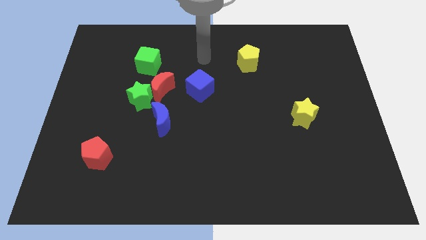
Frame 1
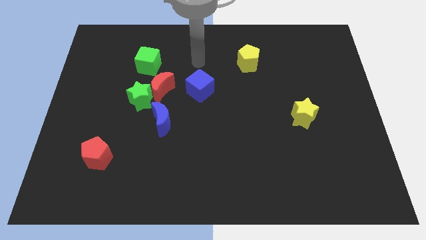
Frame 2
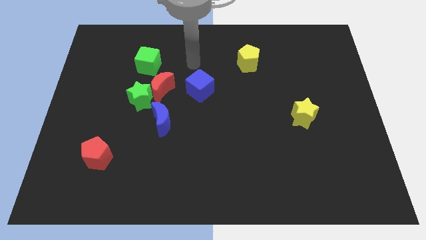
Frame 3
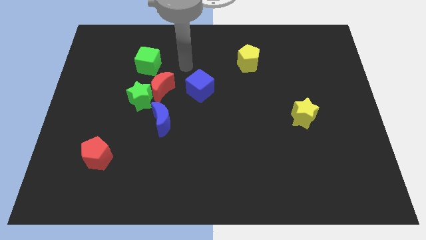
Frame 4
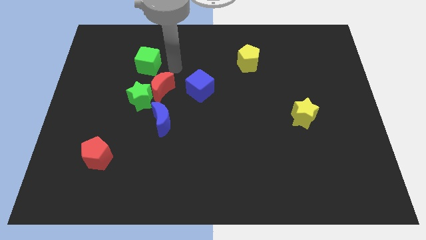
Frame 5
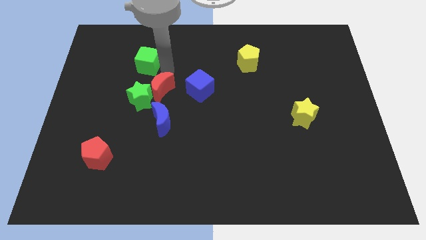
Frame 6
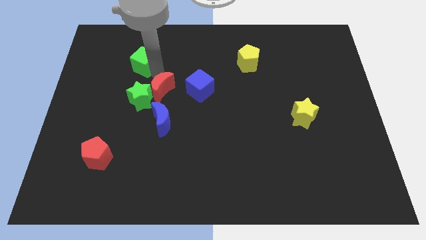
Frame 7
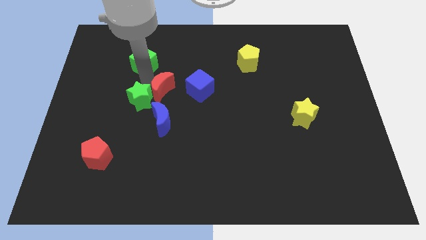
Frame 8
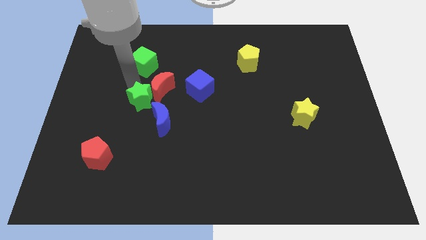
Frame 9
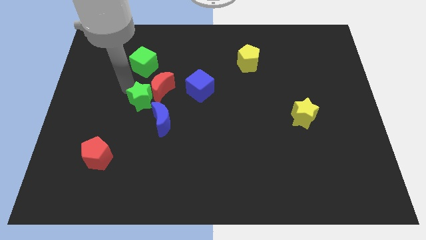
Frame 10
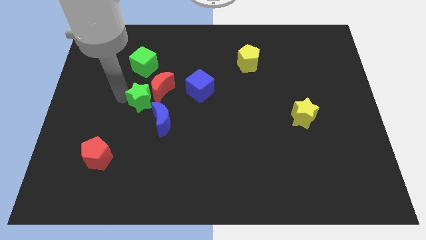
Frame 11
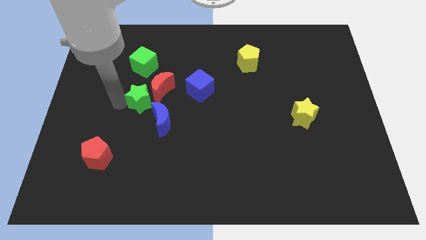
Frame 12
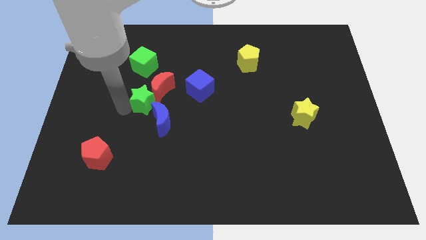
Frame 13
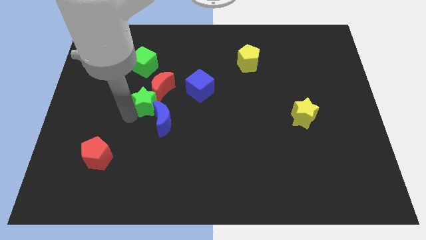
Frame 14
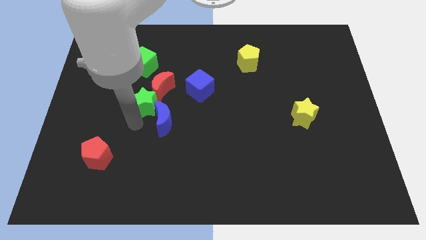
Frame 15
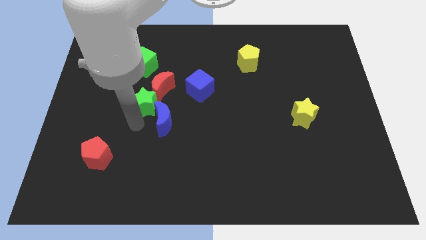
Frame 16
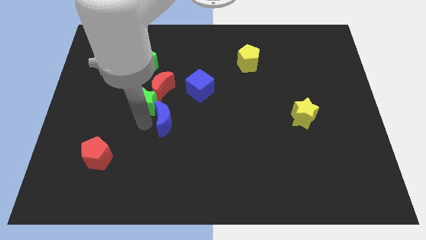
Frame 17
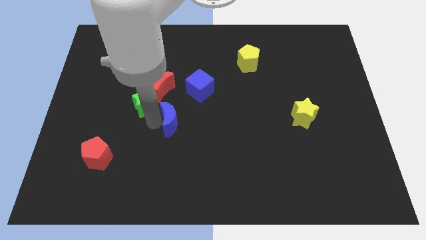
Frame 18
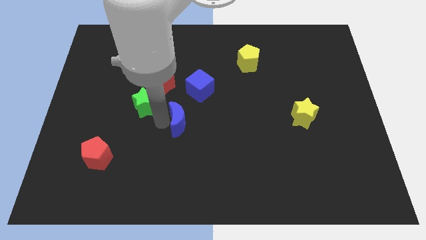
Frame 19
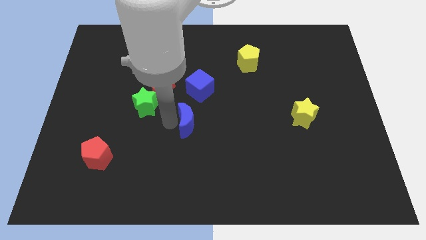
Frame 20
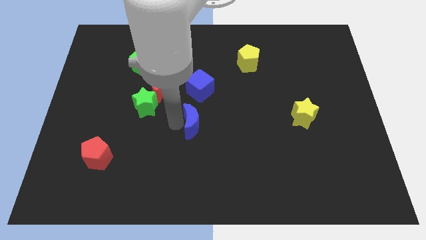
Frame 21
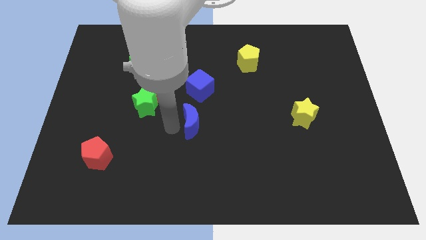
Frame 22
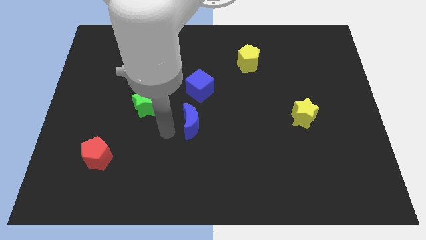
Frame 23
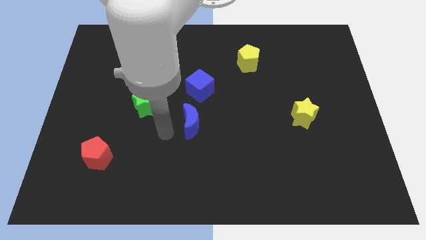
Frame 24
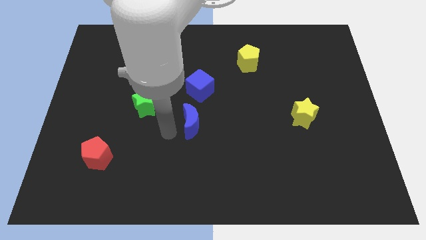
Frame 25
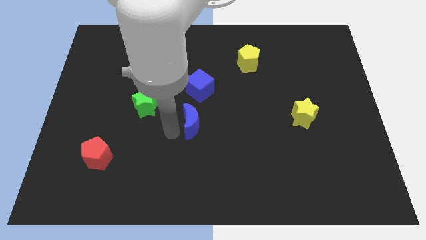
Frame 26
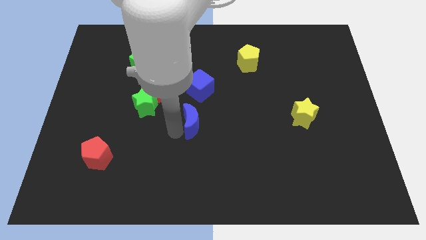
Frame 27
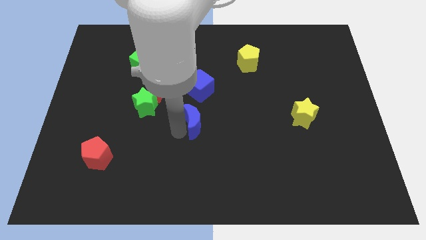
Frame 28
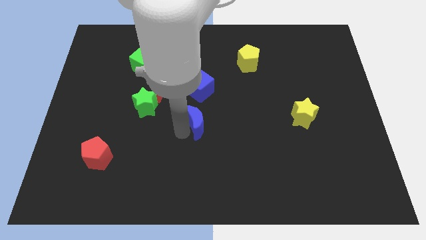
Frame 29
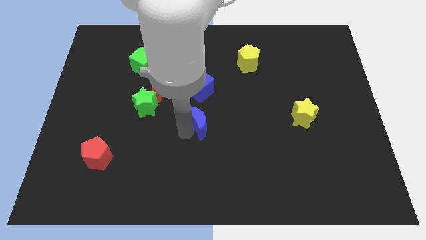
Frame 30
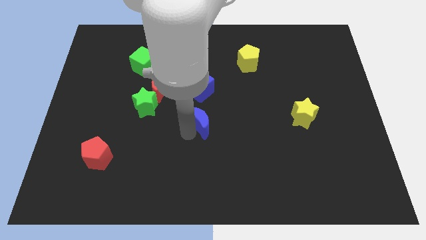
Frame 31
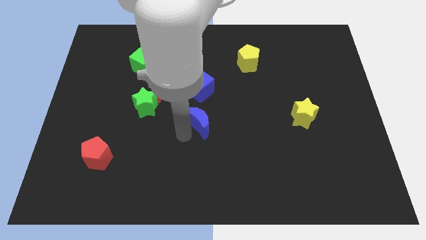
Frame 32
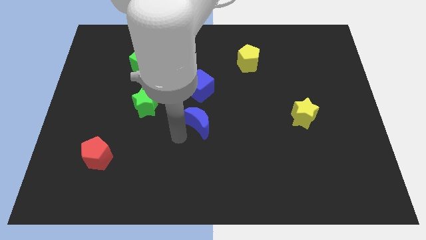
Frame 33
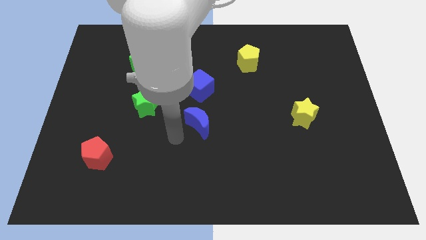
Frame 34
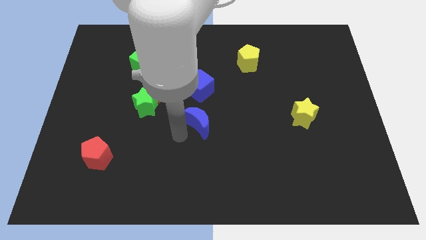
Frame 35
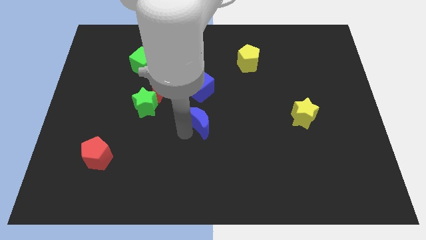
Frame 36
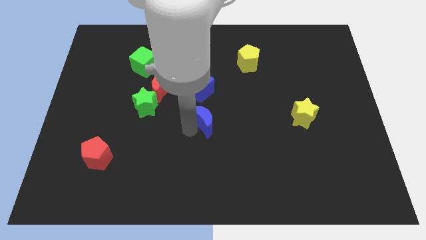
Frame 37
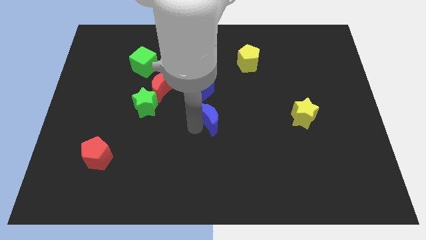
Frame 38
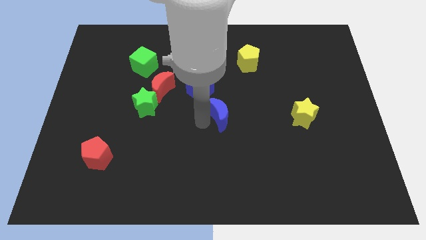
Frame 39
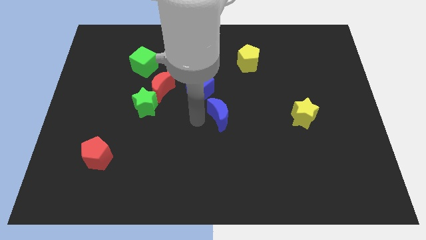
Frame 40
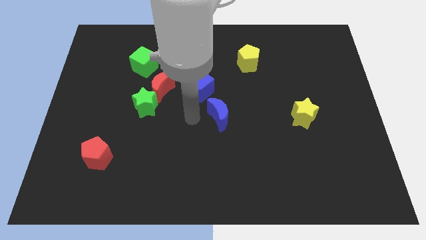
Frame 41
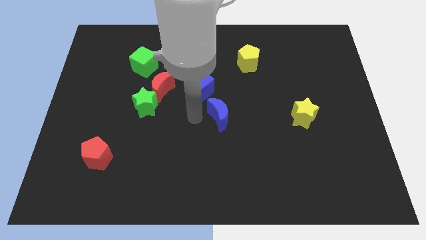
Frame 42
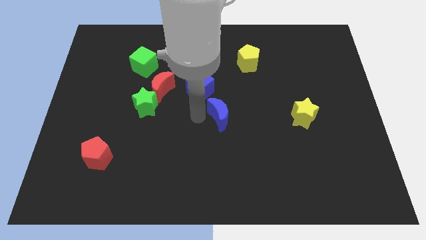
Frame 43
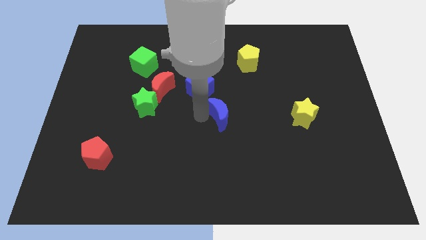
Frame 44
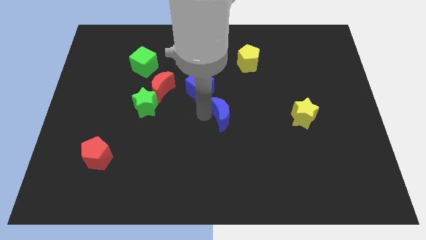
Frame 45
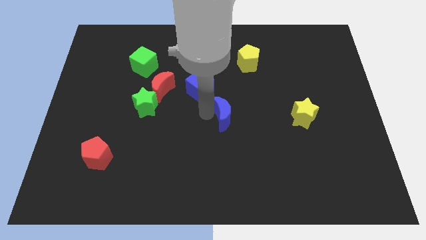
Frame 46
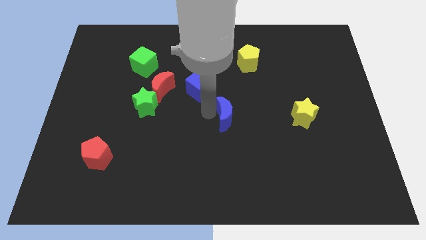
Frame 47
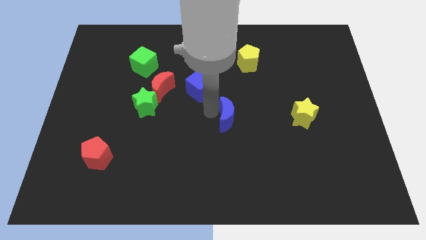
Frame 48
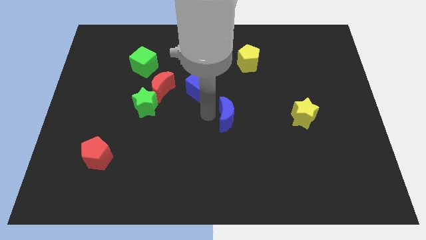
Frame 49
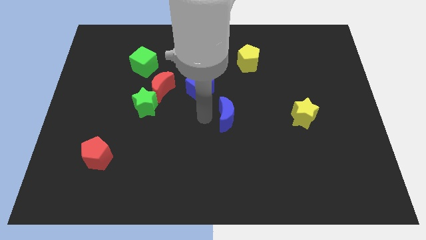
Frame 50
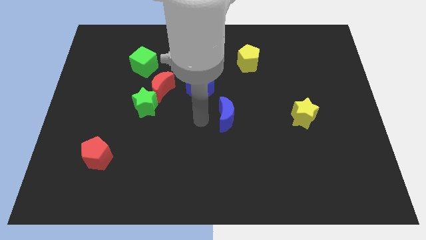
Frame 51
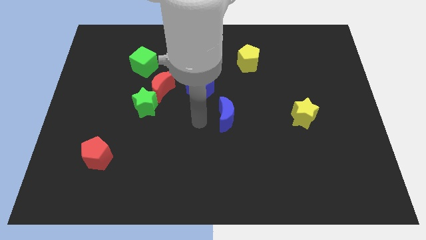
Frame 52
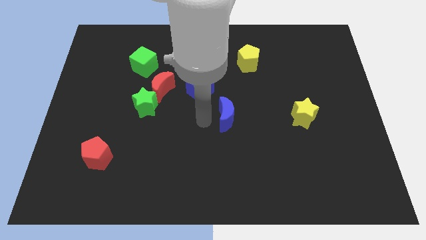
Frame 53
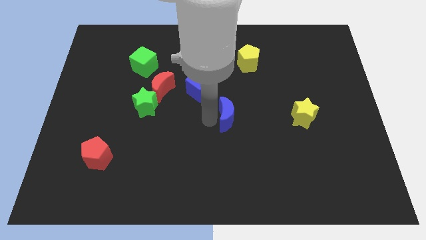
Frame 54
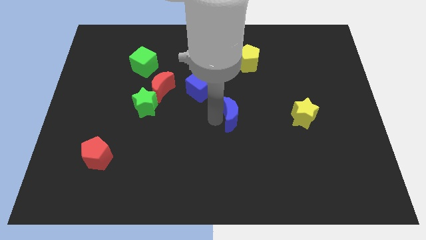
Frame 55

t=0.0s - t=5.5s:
push the blue moon to the left of the yellow star
